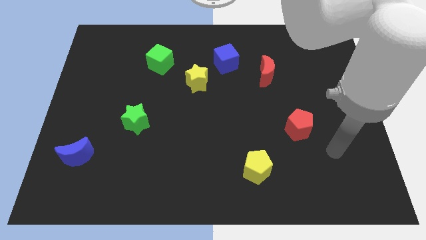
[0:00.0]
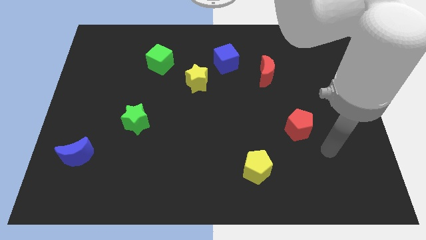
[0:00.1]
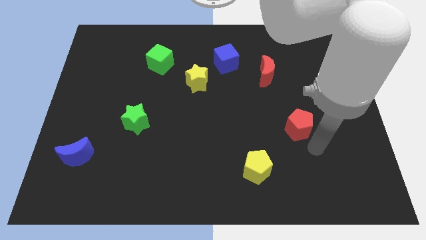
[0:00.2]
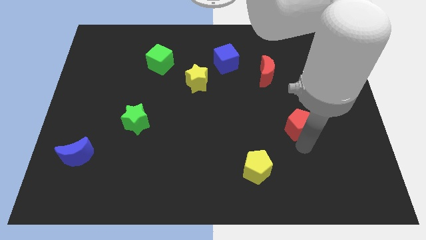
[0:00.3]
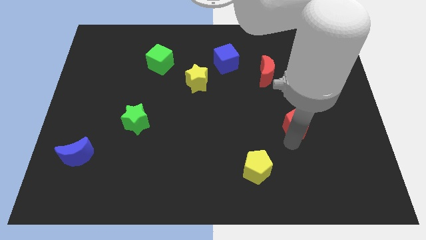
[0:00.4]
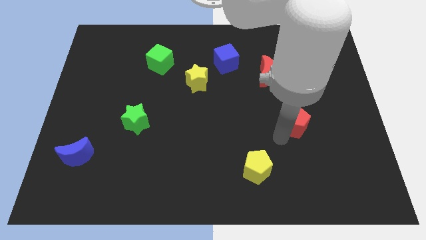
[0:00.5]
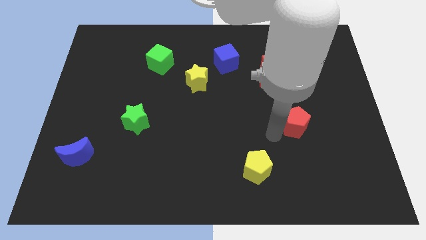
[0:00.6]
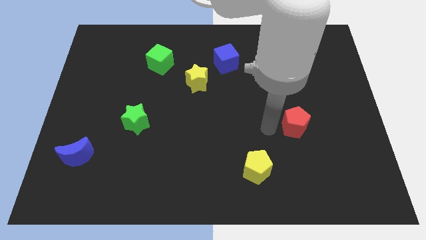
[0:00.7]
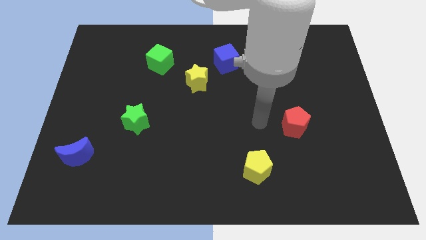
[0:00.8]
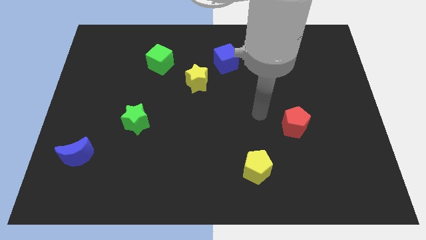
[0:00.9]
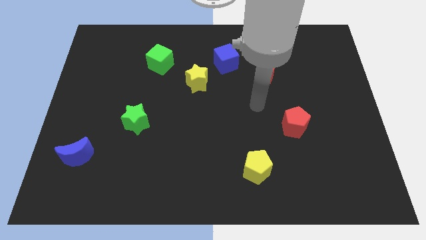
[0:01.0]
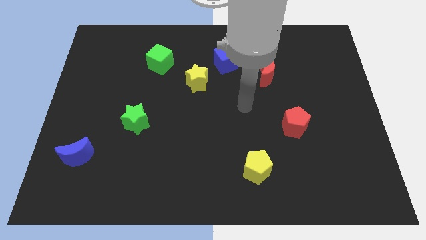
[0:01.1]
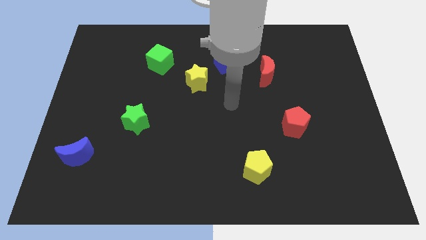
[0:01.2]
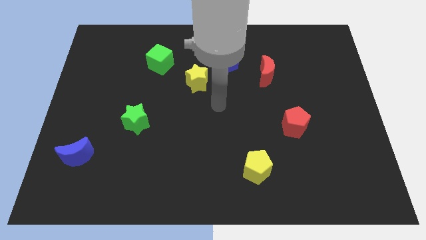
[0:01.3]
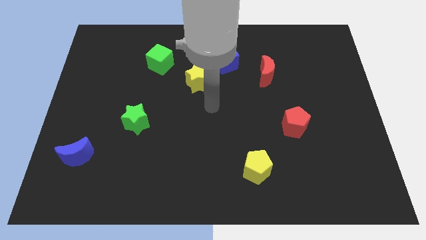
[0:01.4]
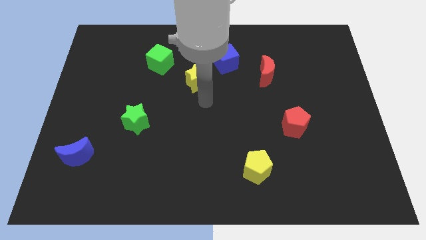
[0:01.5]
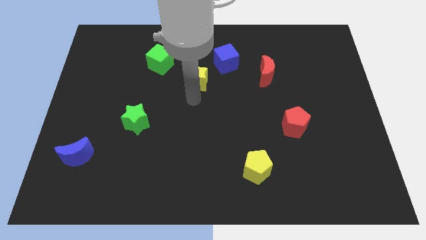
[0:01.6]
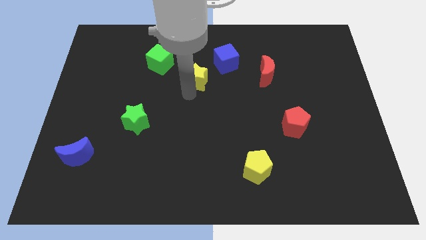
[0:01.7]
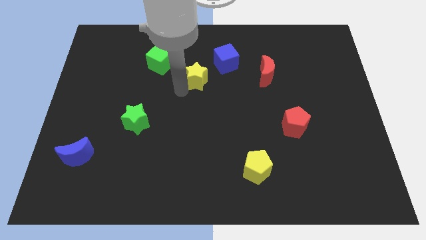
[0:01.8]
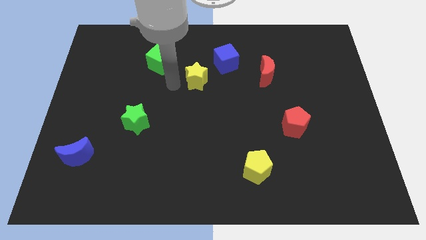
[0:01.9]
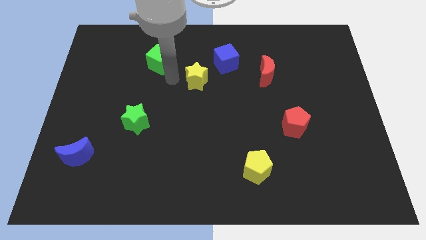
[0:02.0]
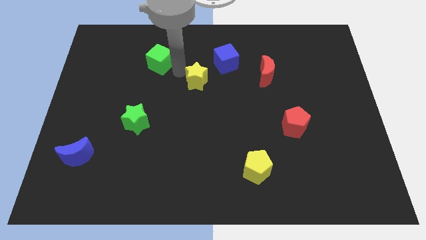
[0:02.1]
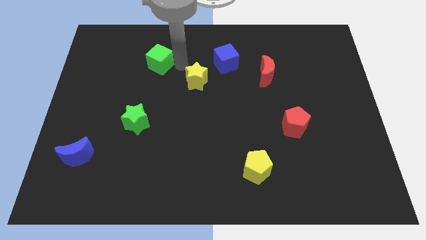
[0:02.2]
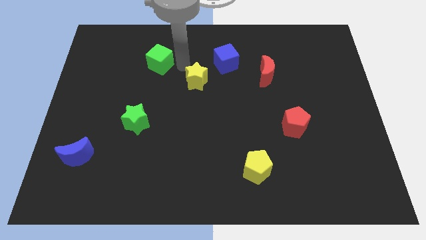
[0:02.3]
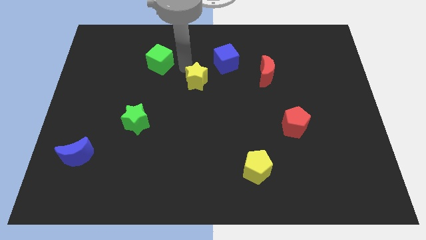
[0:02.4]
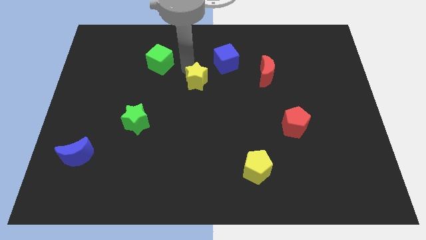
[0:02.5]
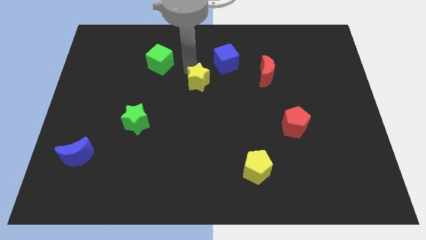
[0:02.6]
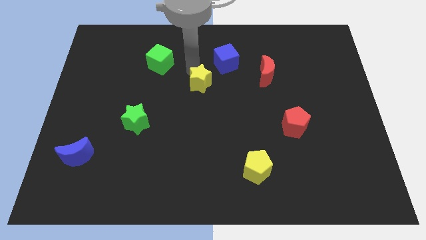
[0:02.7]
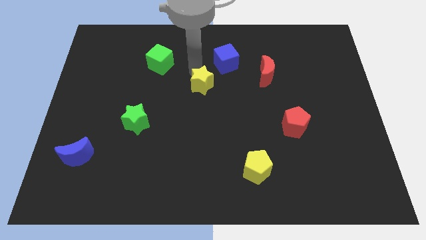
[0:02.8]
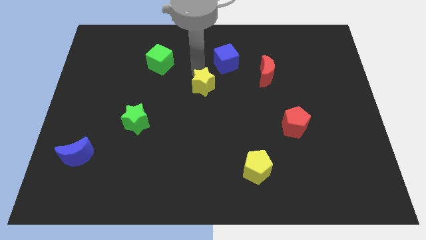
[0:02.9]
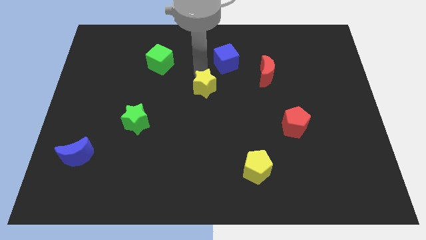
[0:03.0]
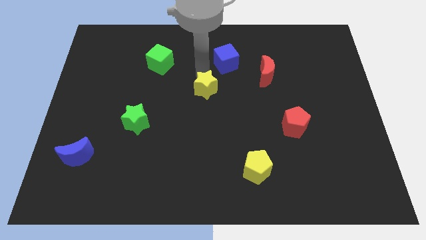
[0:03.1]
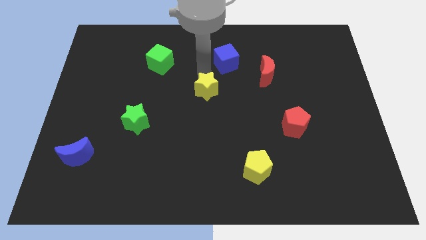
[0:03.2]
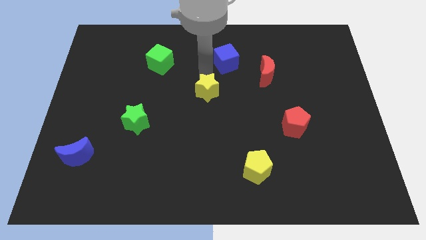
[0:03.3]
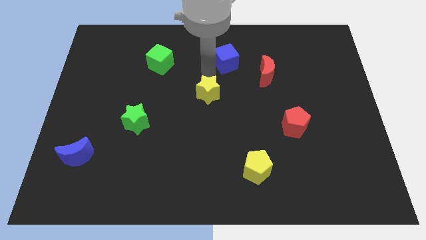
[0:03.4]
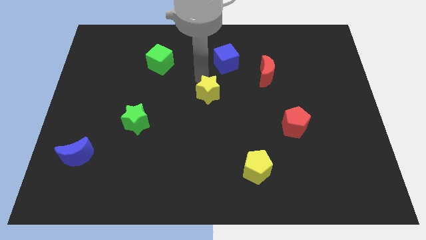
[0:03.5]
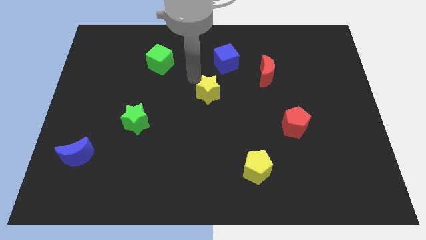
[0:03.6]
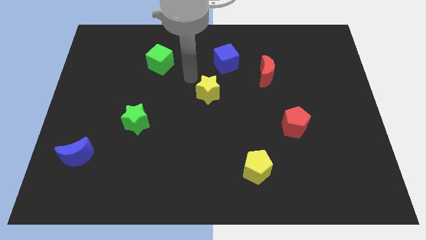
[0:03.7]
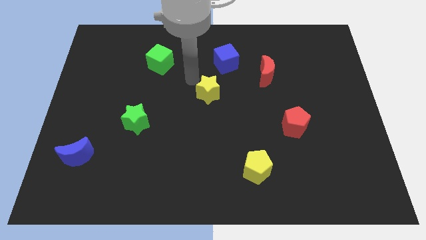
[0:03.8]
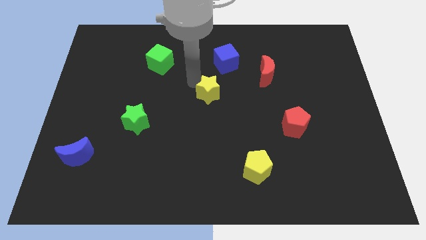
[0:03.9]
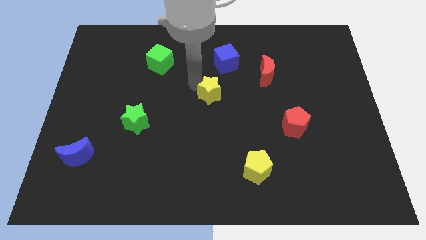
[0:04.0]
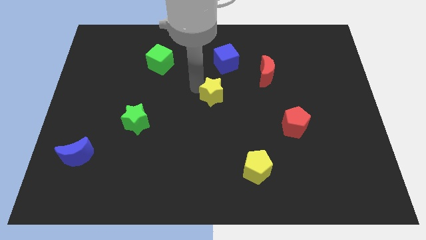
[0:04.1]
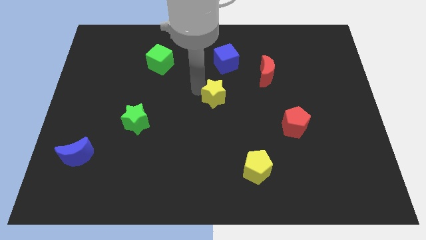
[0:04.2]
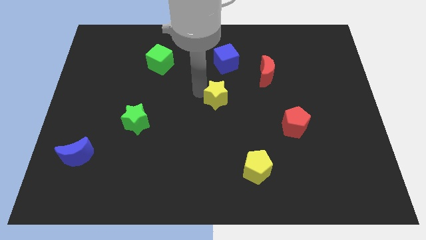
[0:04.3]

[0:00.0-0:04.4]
slide the yellow star somewhat downwards and to the right

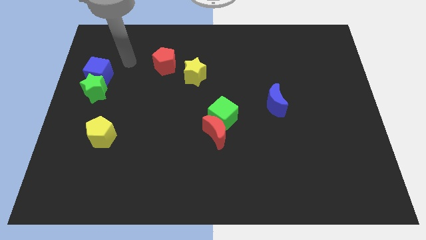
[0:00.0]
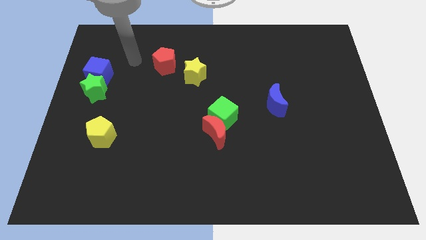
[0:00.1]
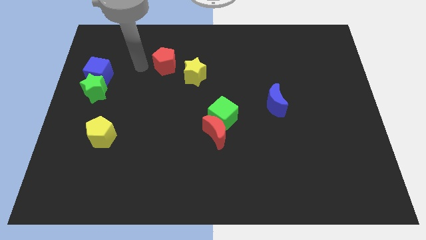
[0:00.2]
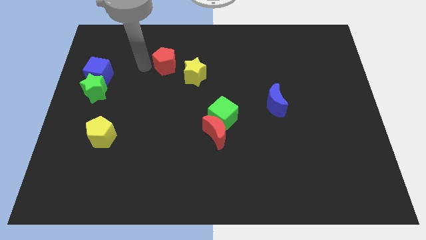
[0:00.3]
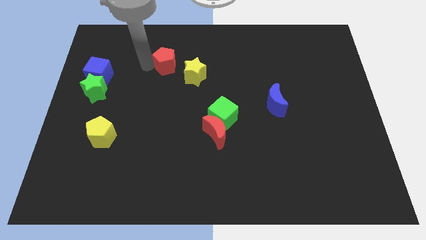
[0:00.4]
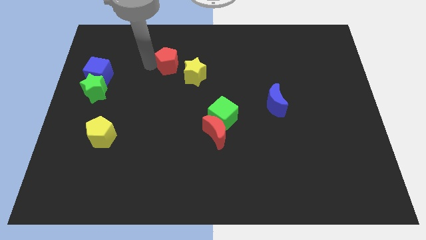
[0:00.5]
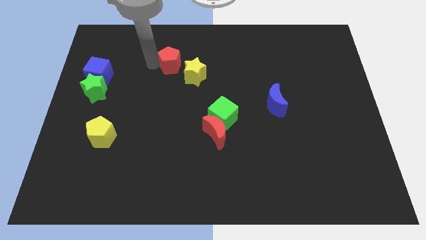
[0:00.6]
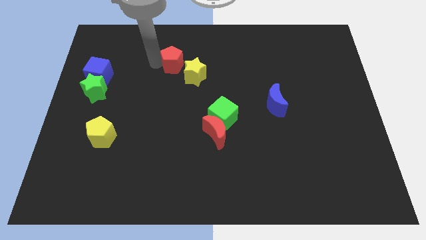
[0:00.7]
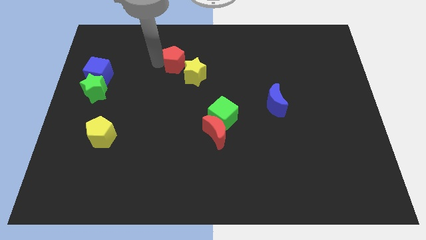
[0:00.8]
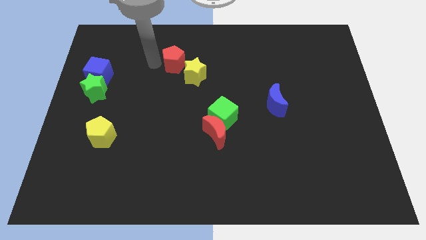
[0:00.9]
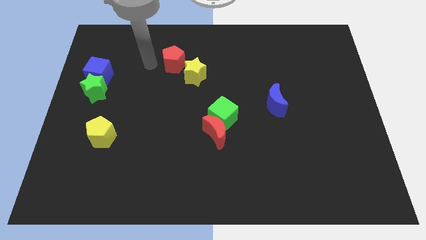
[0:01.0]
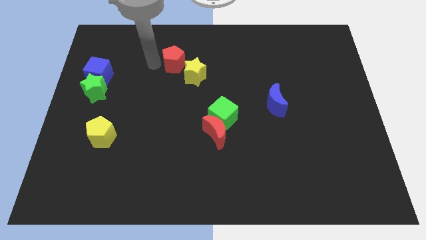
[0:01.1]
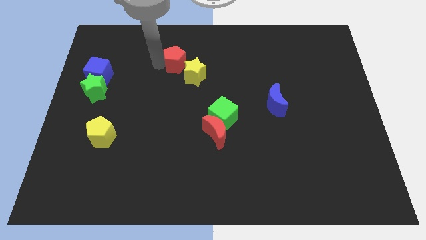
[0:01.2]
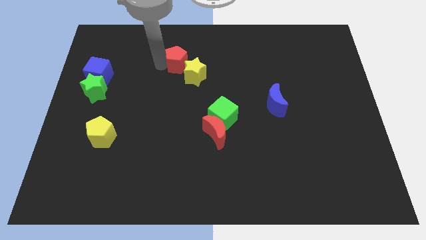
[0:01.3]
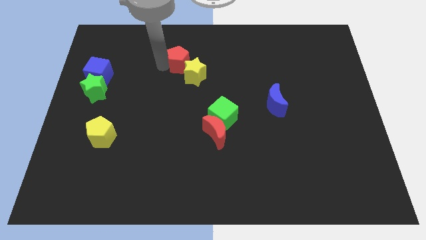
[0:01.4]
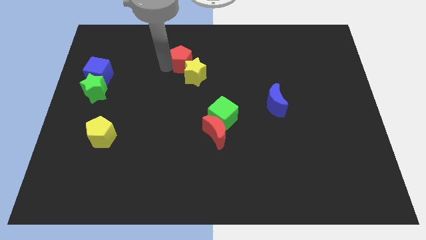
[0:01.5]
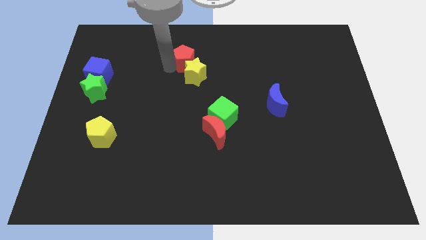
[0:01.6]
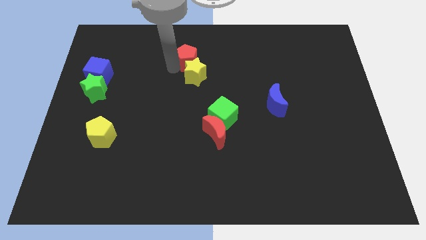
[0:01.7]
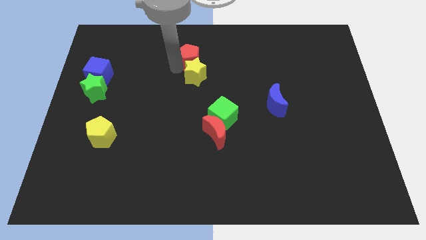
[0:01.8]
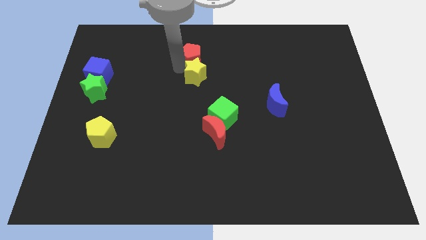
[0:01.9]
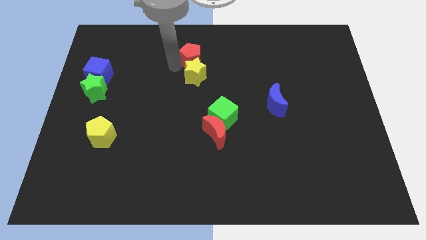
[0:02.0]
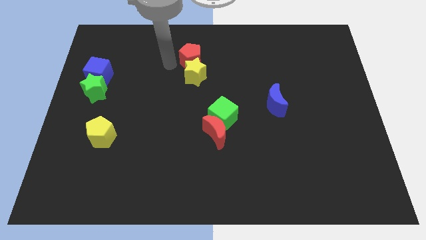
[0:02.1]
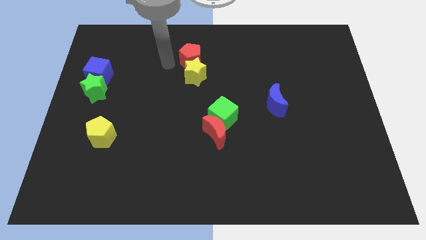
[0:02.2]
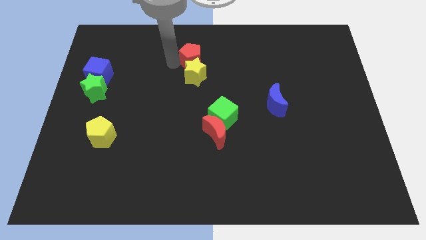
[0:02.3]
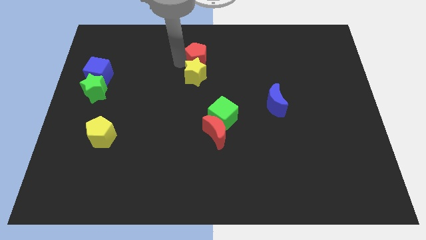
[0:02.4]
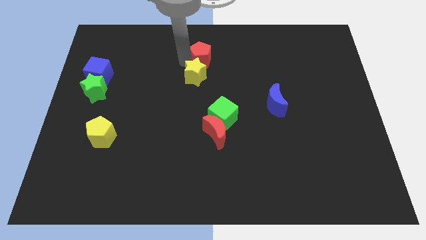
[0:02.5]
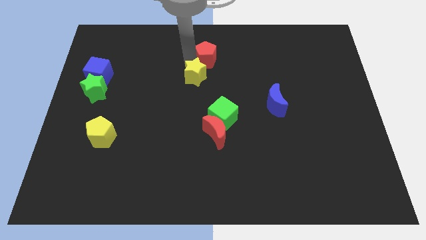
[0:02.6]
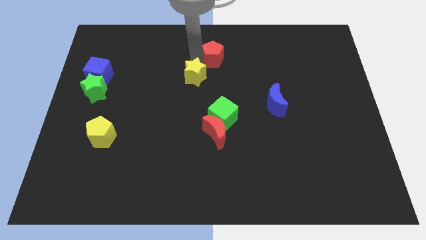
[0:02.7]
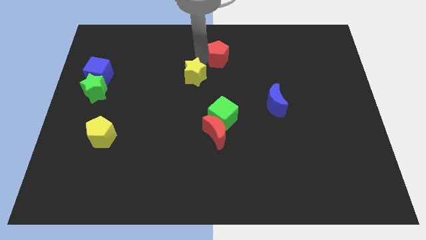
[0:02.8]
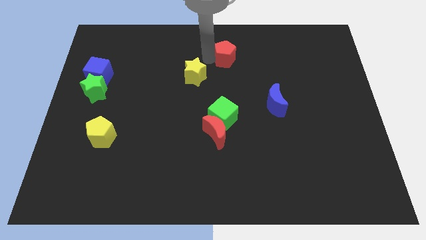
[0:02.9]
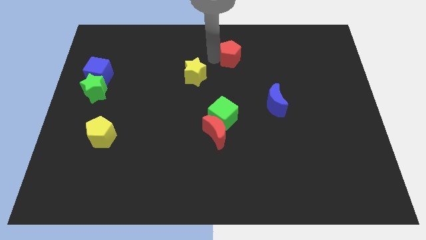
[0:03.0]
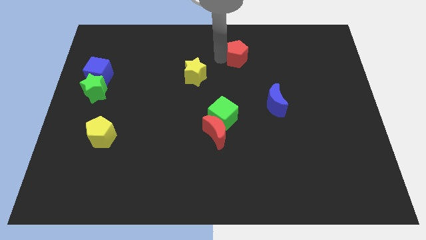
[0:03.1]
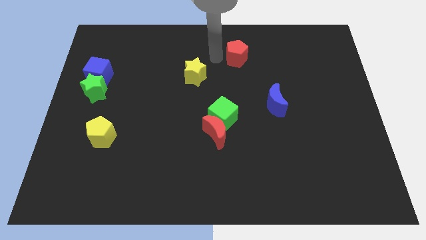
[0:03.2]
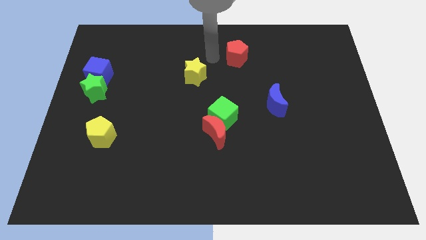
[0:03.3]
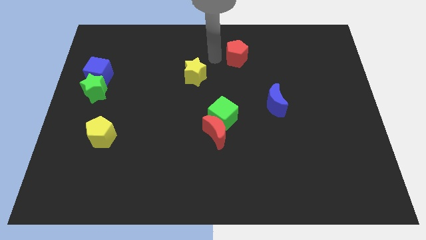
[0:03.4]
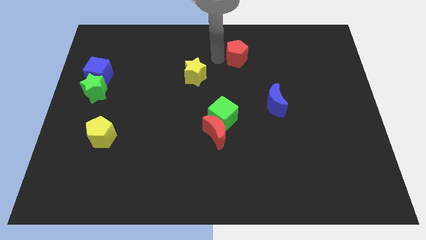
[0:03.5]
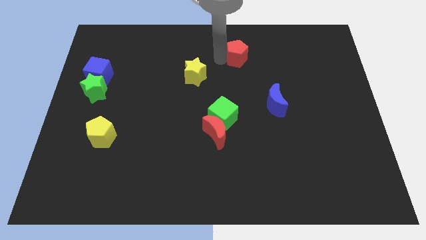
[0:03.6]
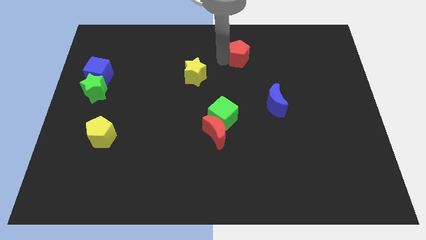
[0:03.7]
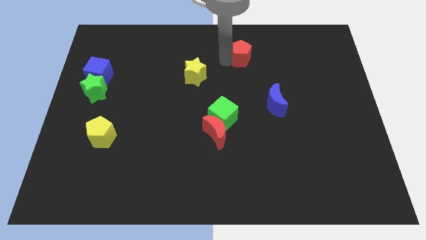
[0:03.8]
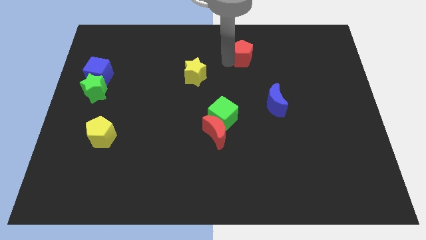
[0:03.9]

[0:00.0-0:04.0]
move the red pentagon right
